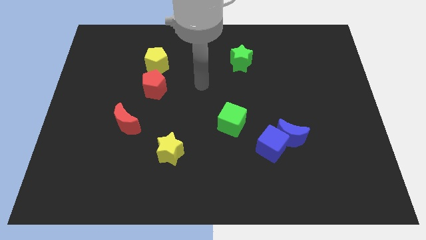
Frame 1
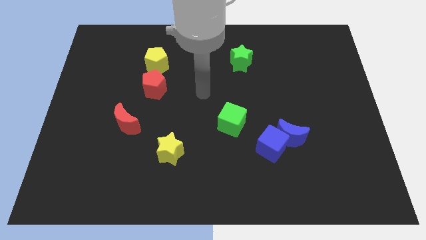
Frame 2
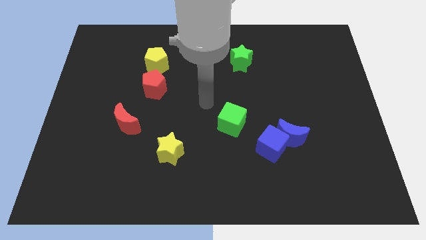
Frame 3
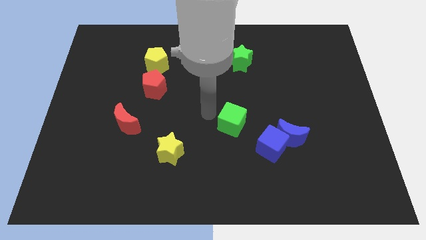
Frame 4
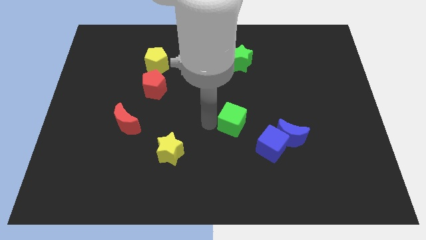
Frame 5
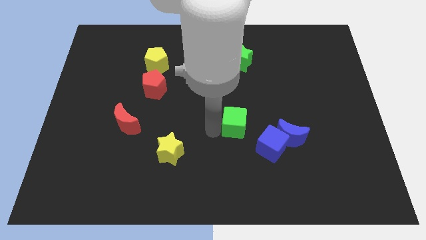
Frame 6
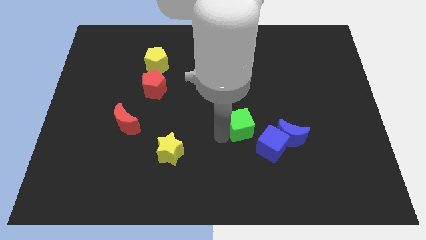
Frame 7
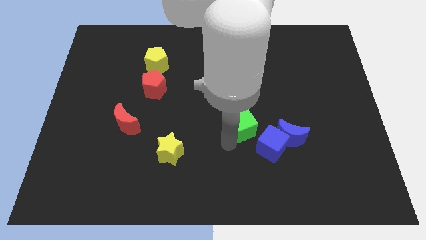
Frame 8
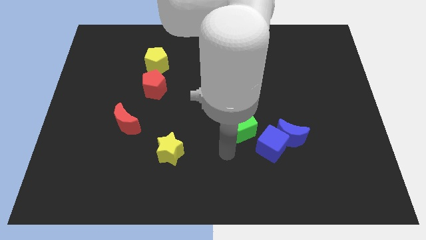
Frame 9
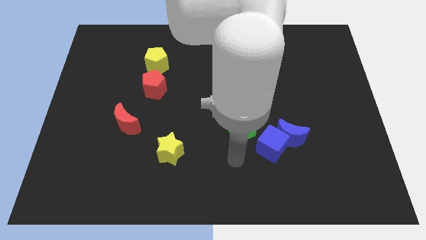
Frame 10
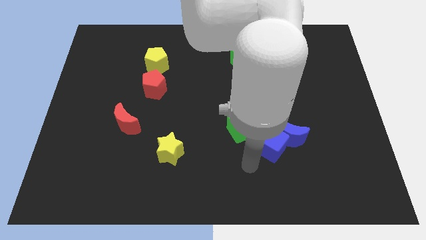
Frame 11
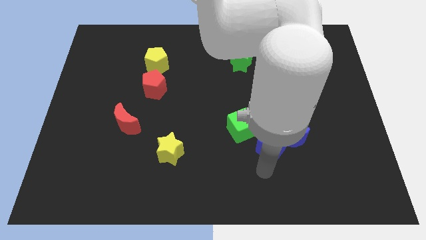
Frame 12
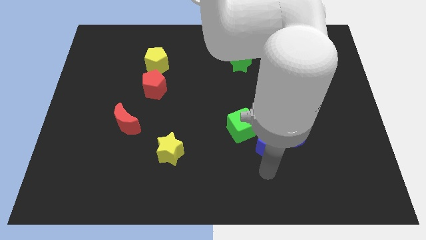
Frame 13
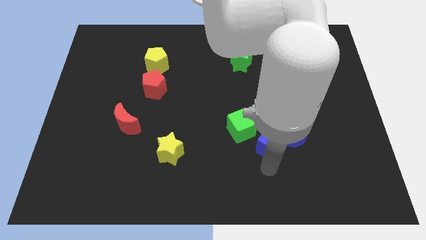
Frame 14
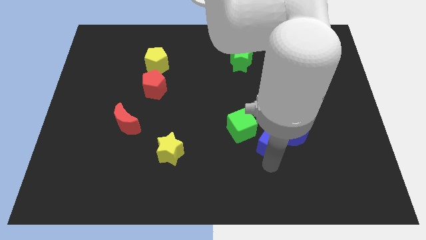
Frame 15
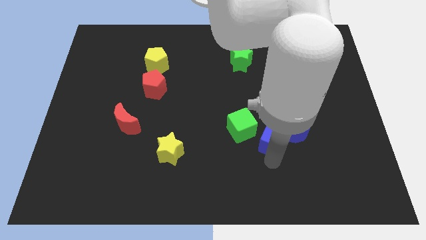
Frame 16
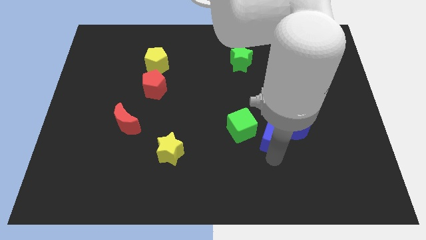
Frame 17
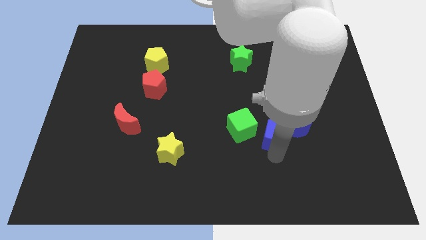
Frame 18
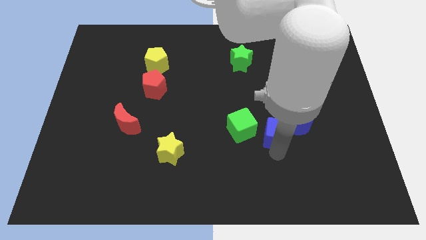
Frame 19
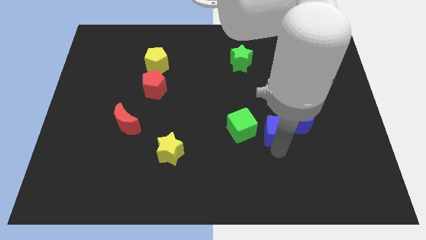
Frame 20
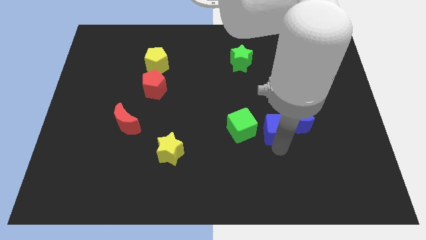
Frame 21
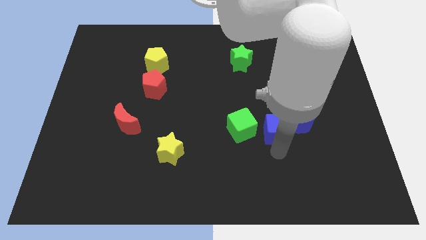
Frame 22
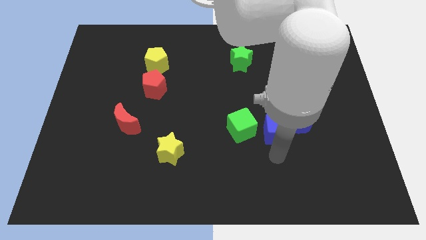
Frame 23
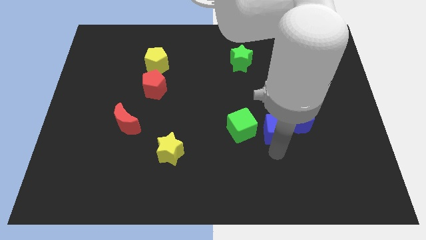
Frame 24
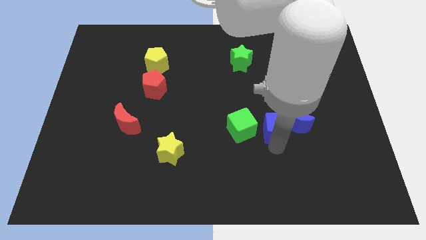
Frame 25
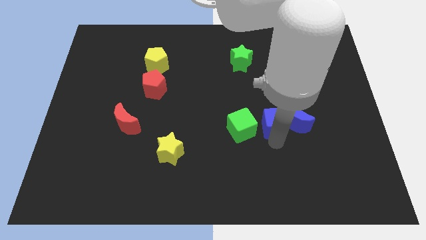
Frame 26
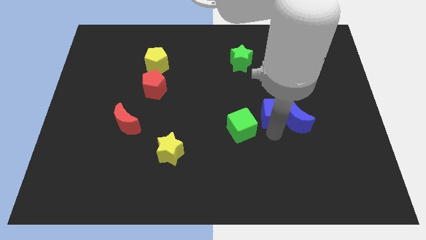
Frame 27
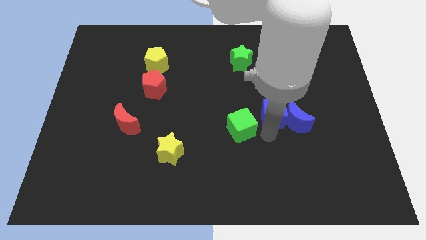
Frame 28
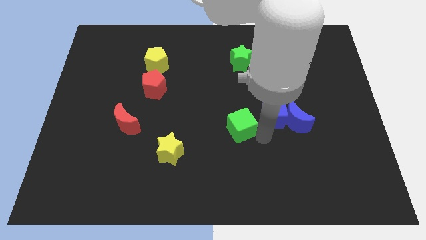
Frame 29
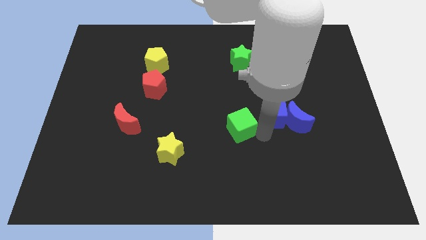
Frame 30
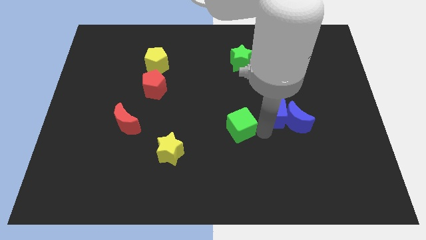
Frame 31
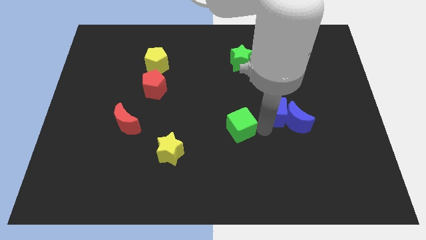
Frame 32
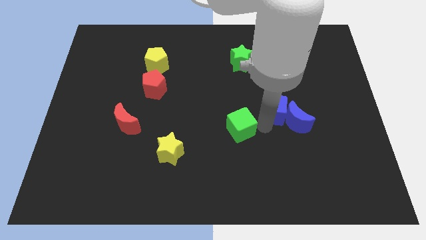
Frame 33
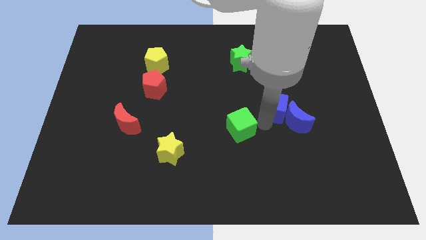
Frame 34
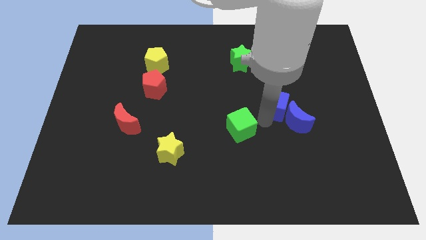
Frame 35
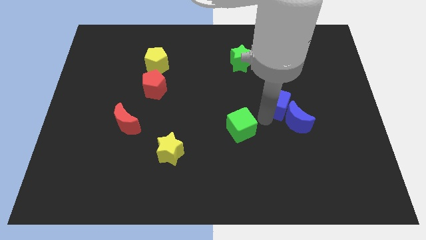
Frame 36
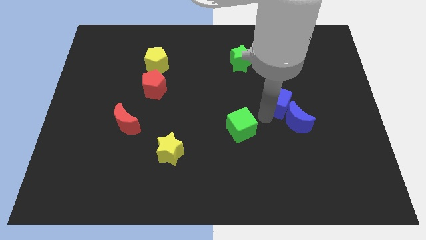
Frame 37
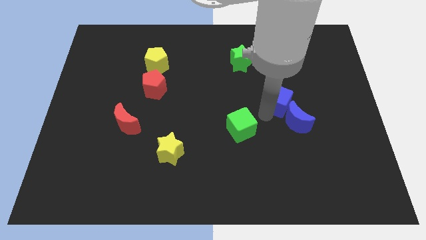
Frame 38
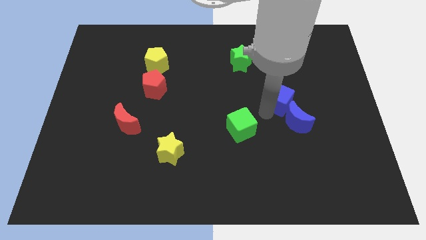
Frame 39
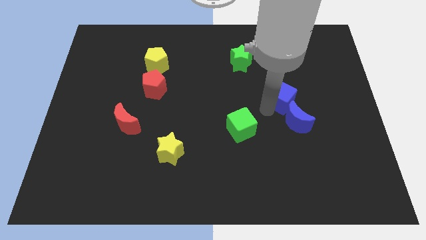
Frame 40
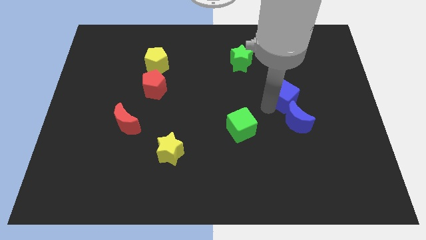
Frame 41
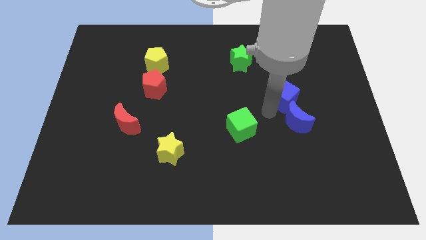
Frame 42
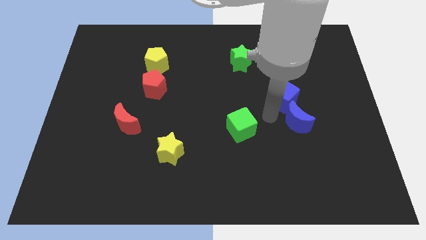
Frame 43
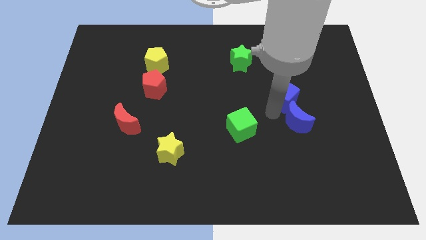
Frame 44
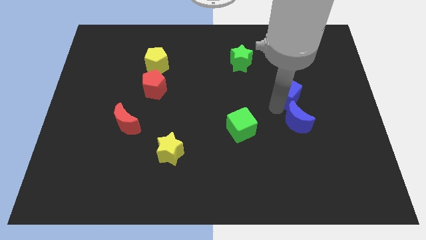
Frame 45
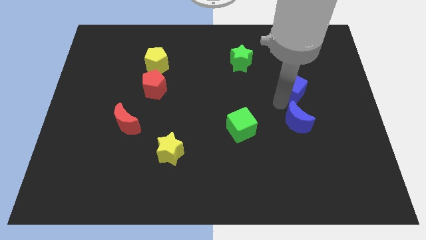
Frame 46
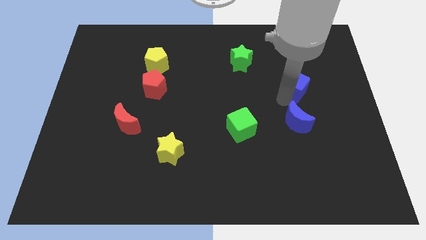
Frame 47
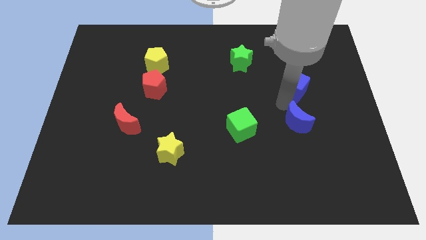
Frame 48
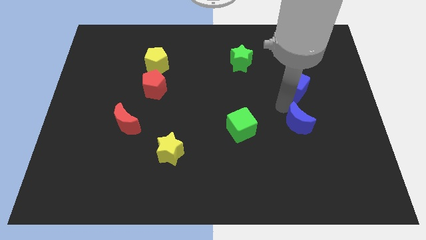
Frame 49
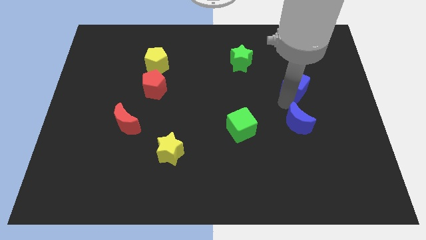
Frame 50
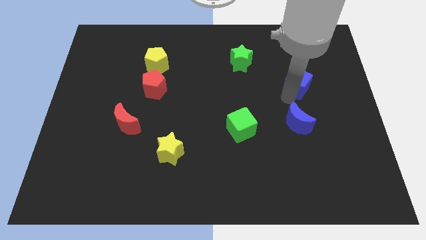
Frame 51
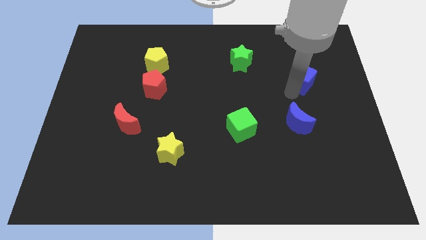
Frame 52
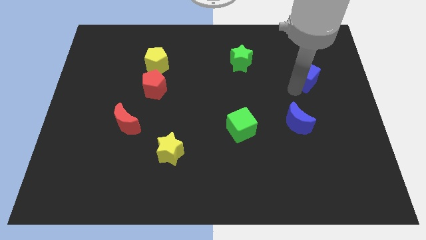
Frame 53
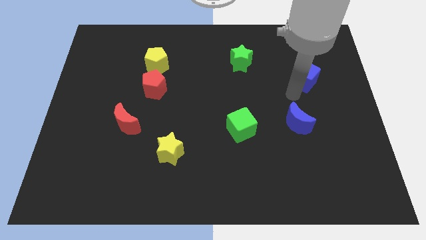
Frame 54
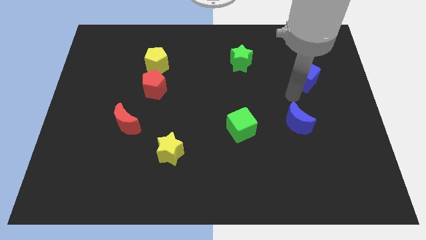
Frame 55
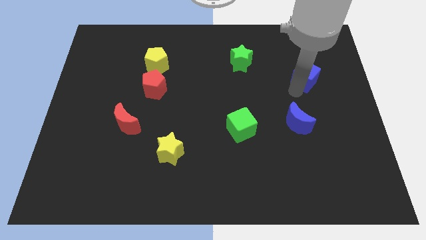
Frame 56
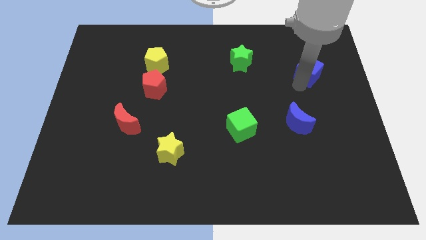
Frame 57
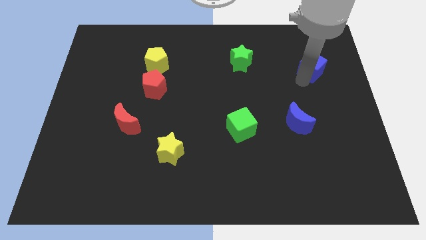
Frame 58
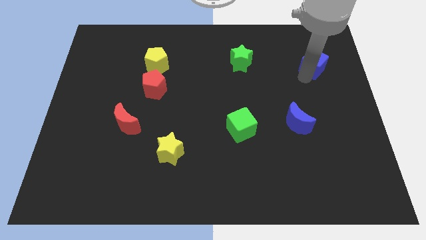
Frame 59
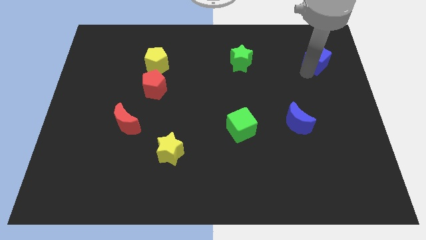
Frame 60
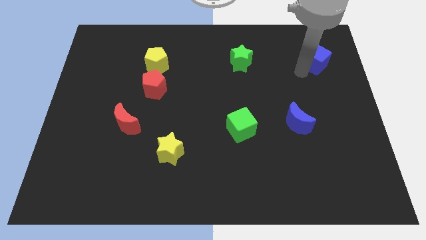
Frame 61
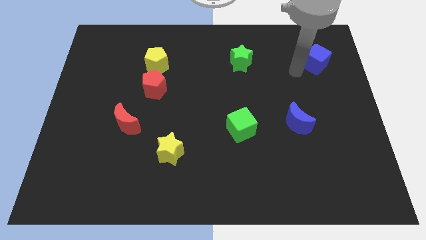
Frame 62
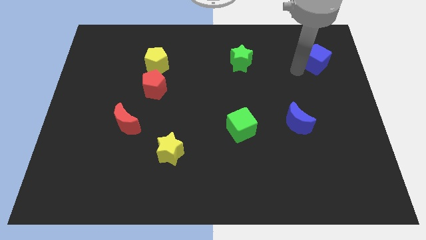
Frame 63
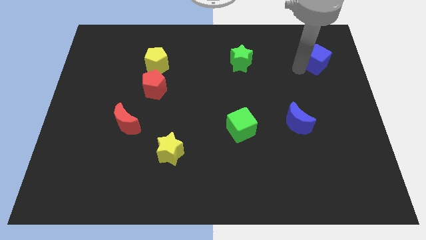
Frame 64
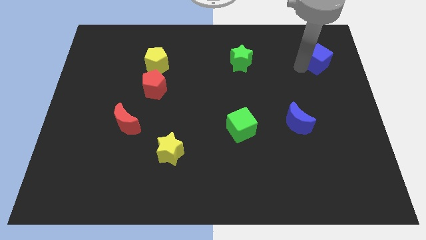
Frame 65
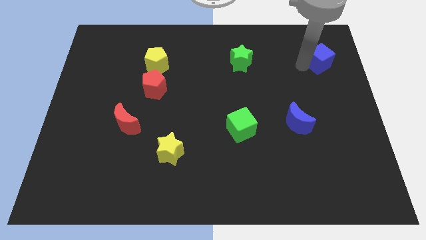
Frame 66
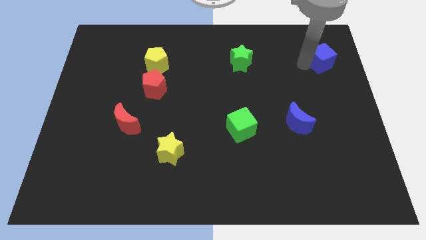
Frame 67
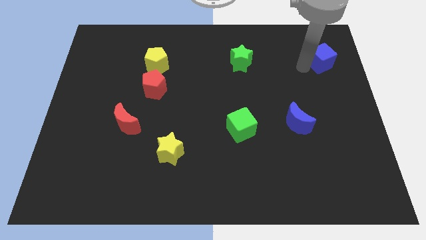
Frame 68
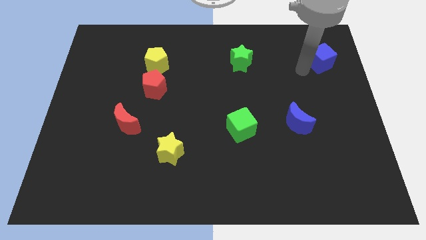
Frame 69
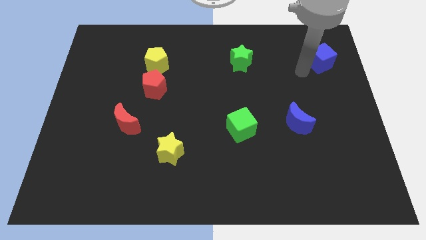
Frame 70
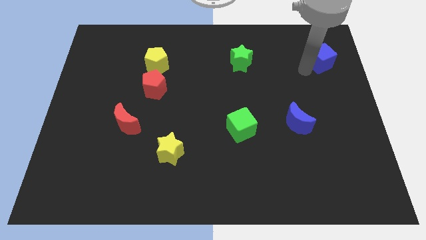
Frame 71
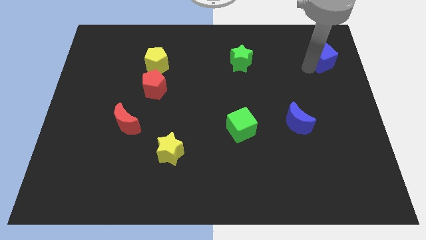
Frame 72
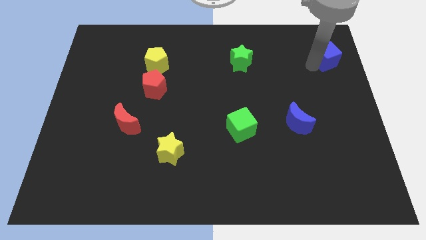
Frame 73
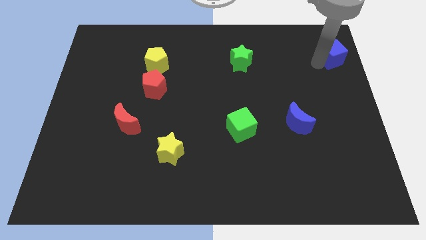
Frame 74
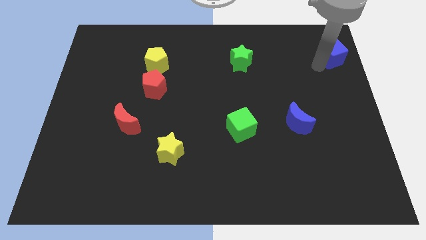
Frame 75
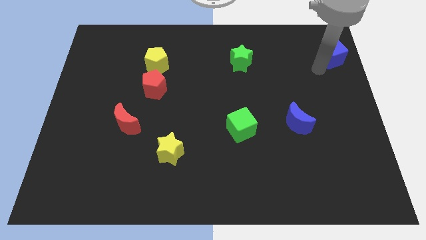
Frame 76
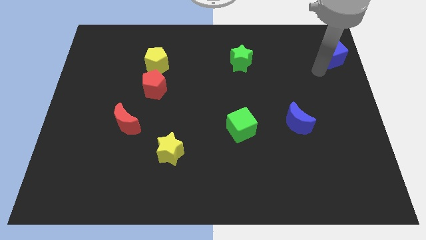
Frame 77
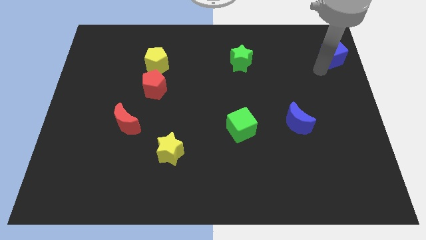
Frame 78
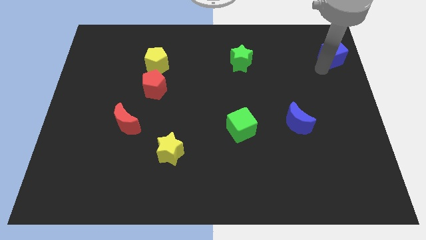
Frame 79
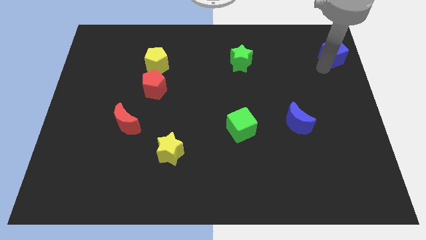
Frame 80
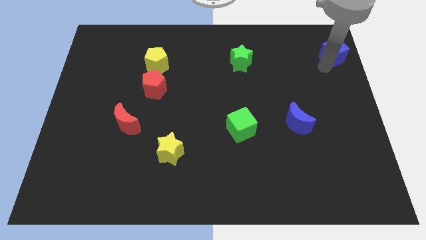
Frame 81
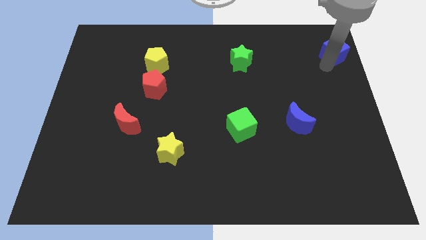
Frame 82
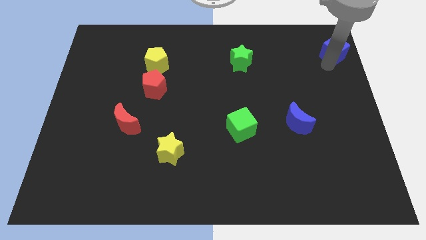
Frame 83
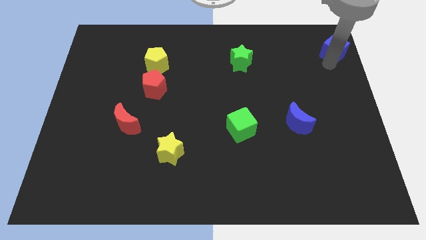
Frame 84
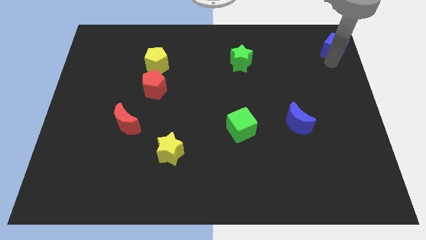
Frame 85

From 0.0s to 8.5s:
slide the blue cube to the top right

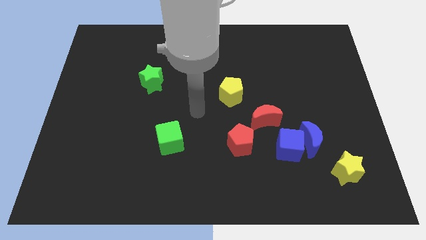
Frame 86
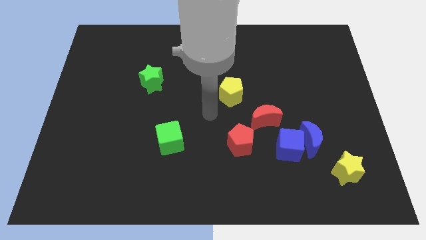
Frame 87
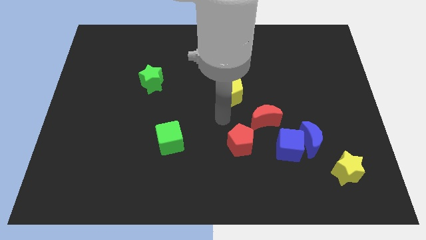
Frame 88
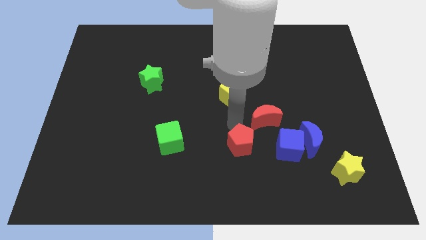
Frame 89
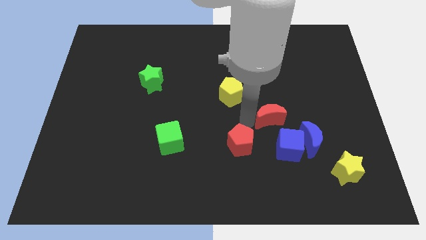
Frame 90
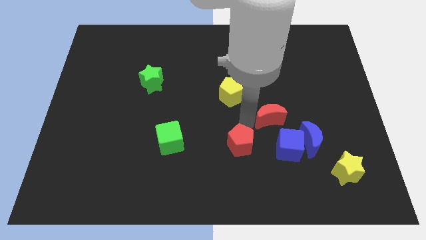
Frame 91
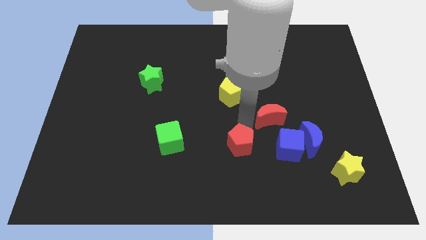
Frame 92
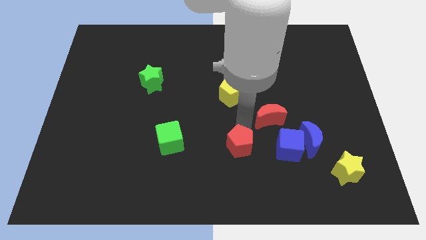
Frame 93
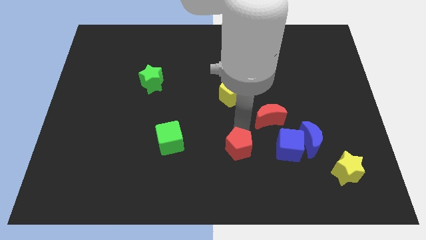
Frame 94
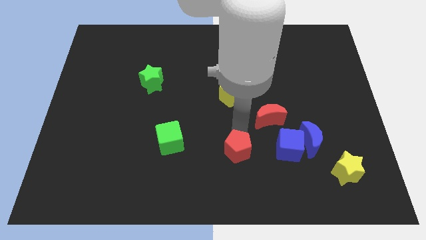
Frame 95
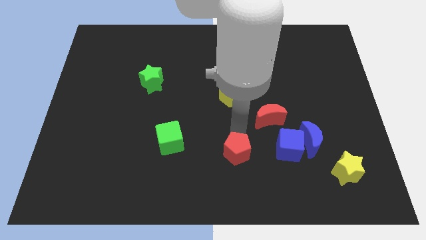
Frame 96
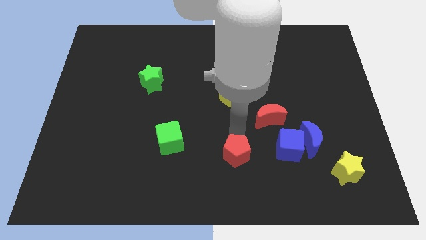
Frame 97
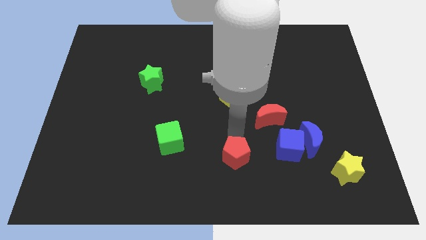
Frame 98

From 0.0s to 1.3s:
slide the red pentagon to the bottom
